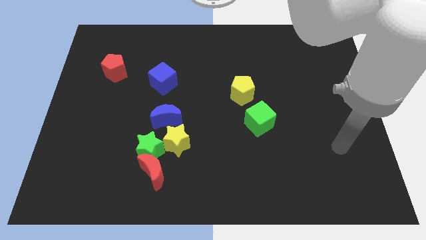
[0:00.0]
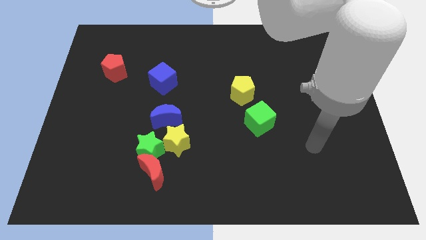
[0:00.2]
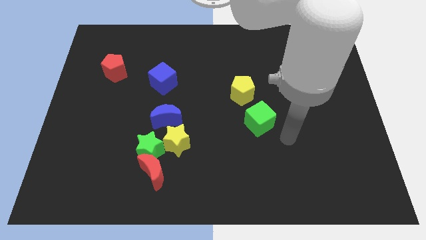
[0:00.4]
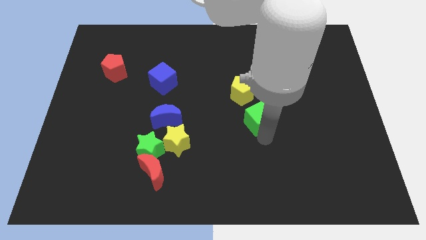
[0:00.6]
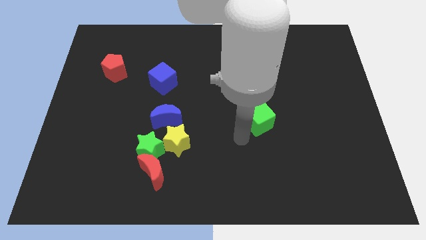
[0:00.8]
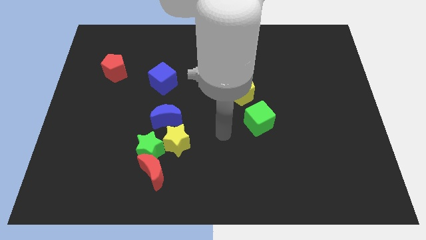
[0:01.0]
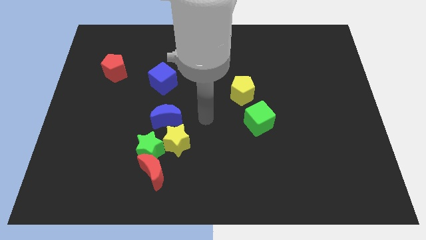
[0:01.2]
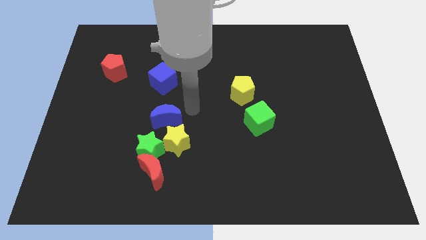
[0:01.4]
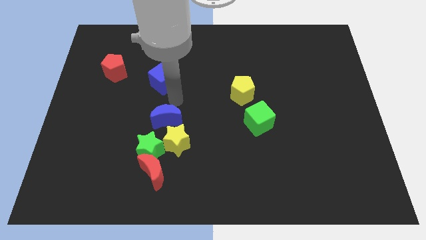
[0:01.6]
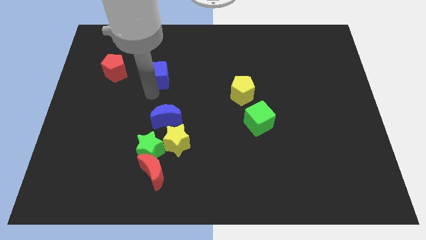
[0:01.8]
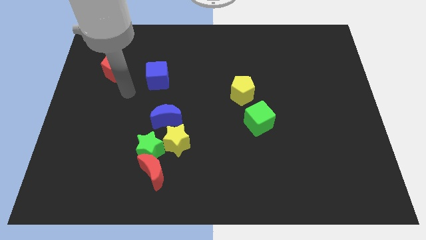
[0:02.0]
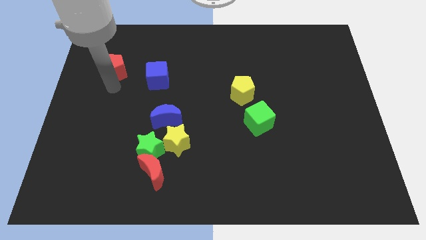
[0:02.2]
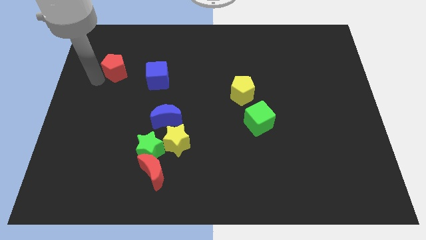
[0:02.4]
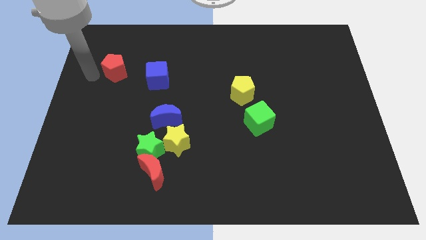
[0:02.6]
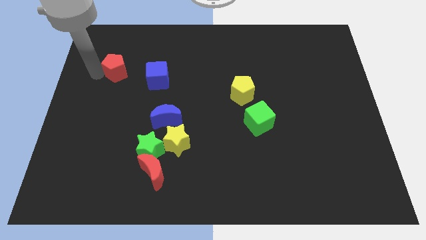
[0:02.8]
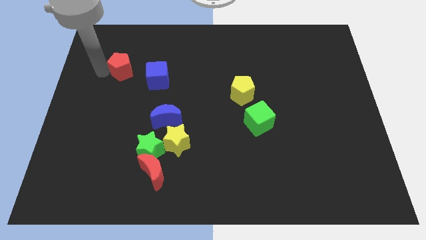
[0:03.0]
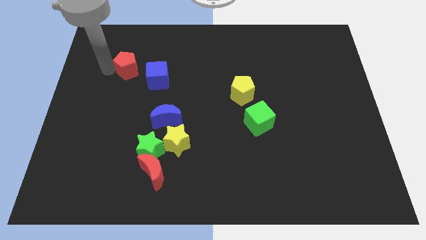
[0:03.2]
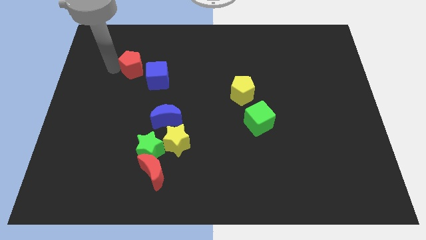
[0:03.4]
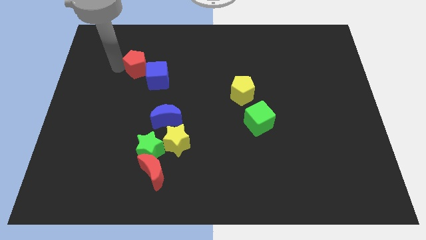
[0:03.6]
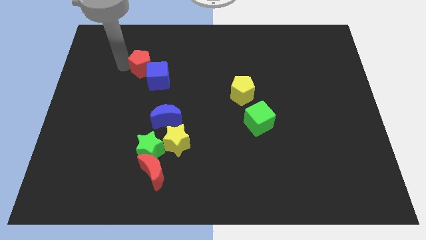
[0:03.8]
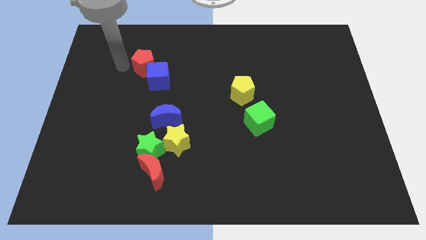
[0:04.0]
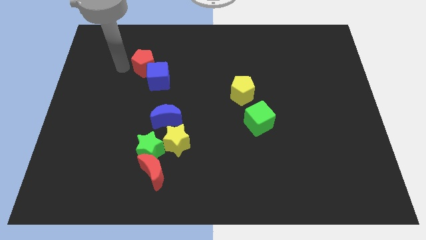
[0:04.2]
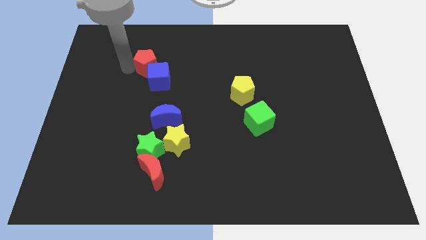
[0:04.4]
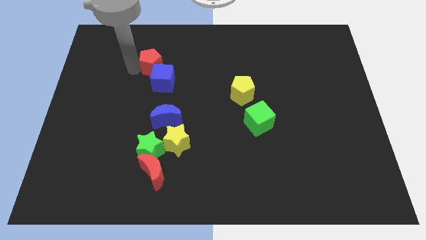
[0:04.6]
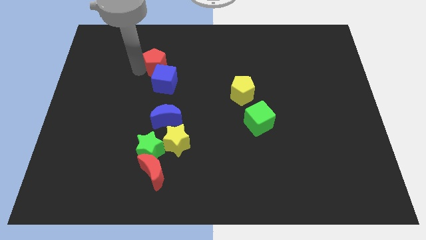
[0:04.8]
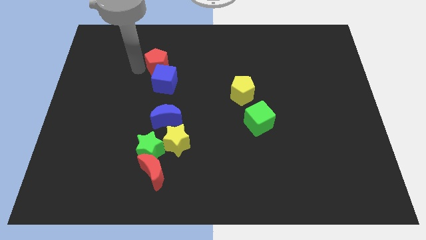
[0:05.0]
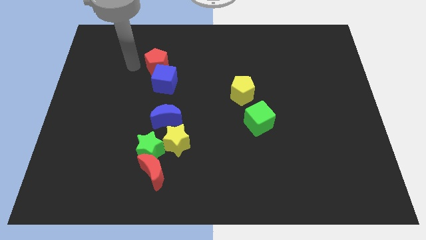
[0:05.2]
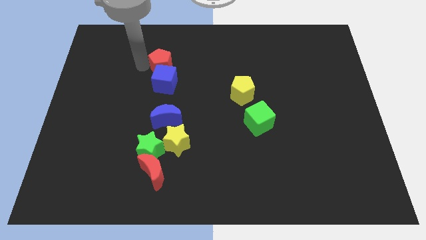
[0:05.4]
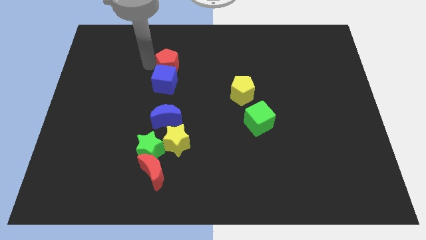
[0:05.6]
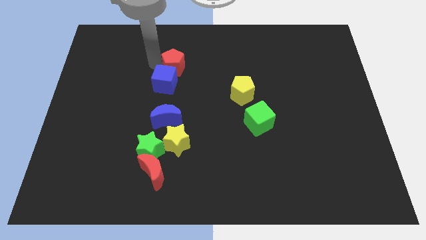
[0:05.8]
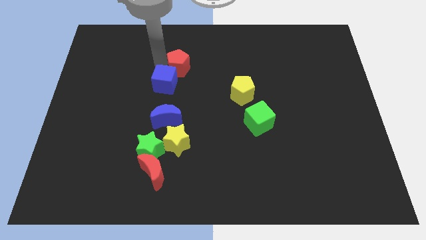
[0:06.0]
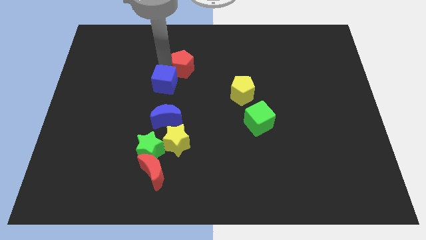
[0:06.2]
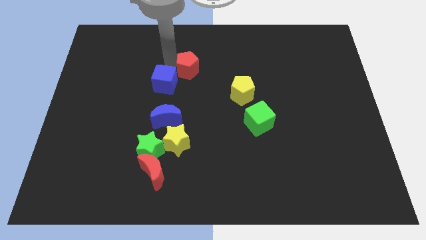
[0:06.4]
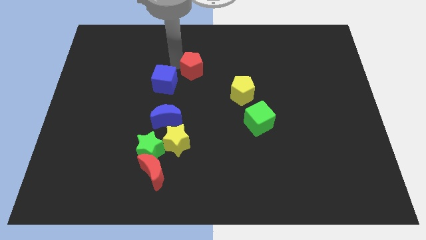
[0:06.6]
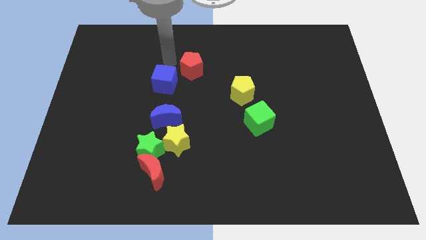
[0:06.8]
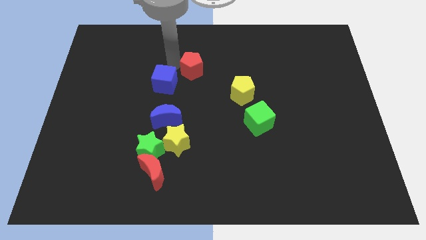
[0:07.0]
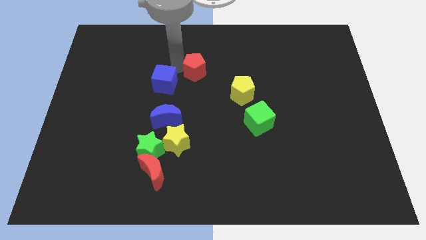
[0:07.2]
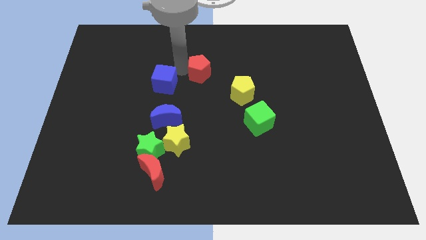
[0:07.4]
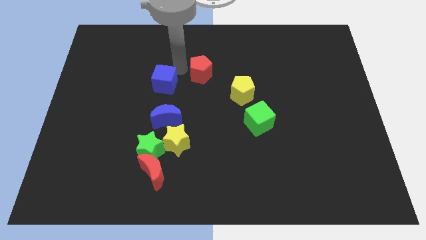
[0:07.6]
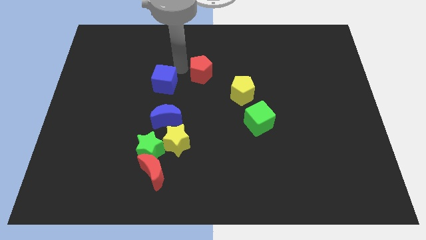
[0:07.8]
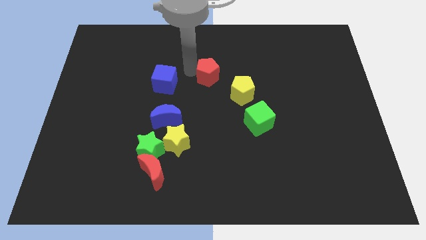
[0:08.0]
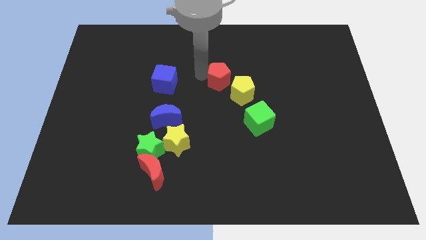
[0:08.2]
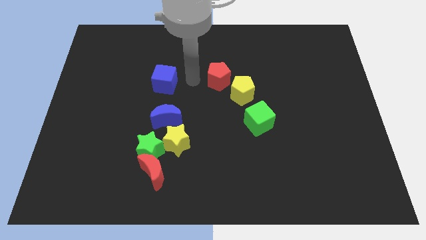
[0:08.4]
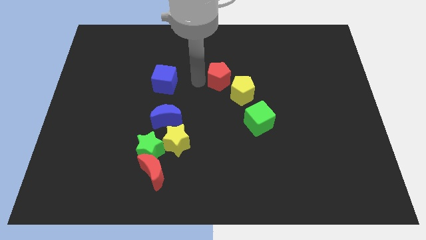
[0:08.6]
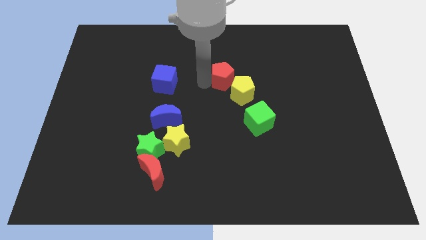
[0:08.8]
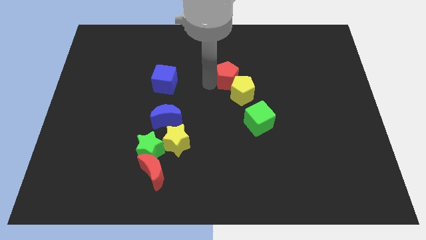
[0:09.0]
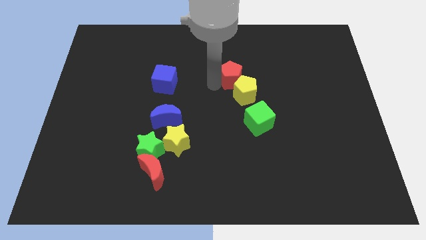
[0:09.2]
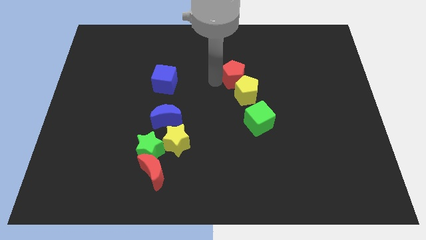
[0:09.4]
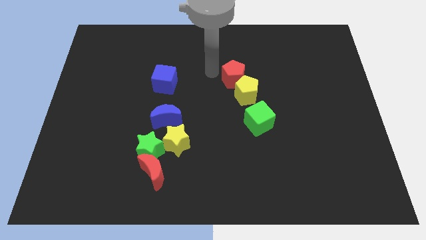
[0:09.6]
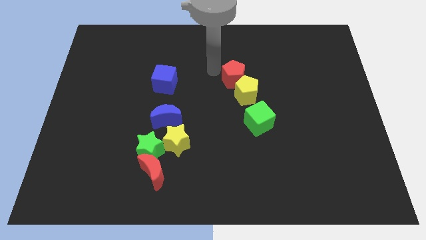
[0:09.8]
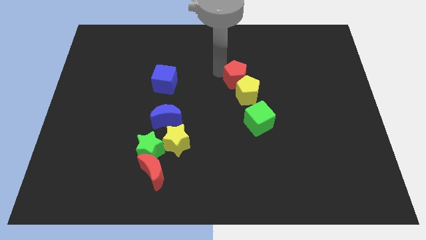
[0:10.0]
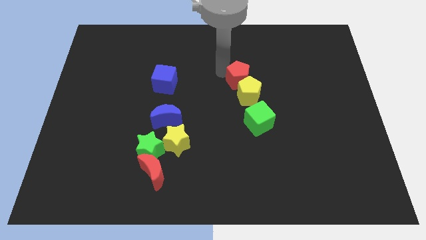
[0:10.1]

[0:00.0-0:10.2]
put the red pentagon above the green cube

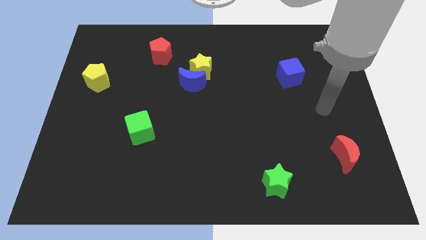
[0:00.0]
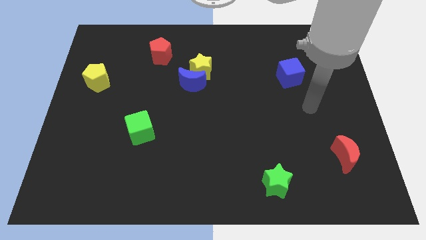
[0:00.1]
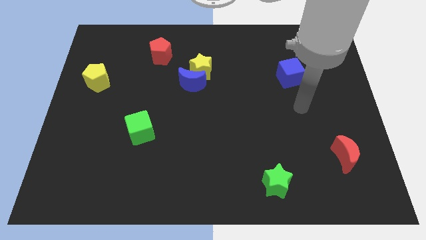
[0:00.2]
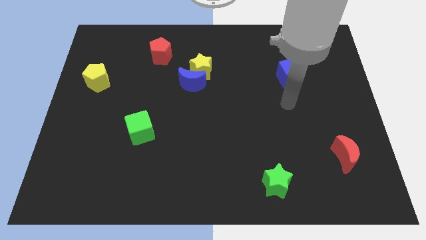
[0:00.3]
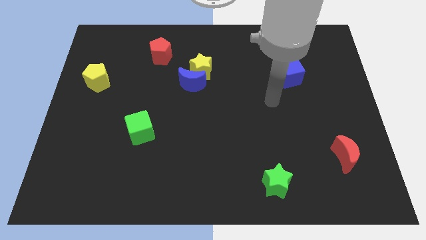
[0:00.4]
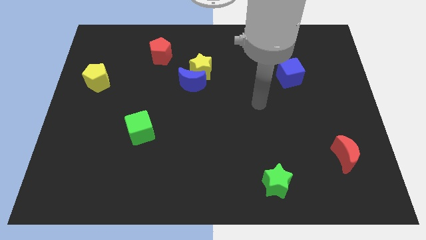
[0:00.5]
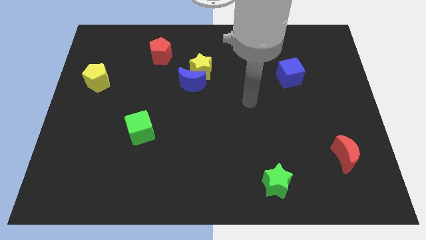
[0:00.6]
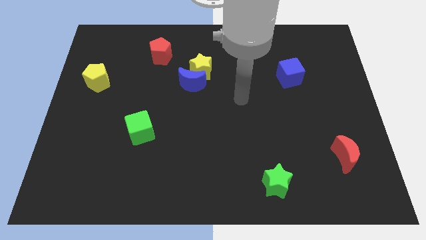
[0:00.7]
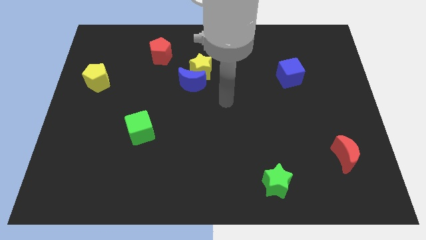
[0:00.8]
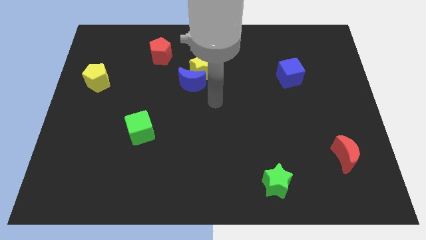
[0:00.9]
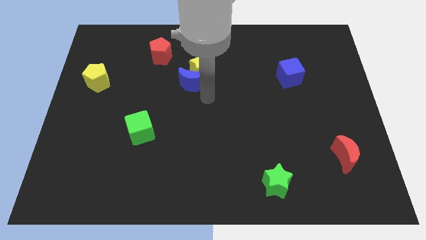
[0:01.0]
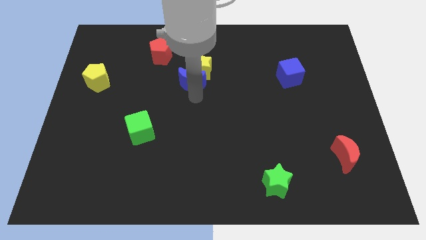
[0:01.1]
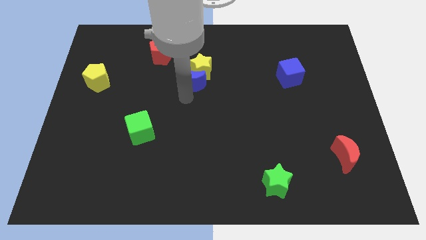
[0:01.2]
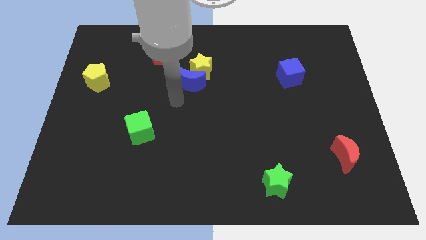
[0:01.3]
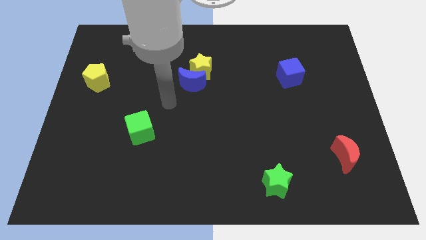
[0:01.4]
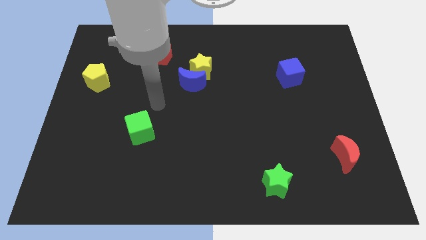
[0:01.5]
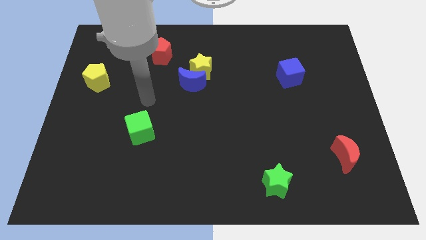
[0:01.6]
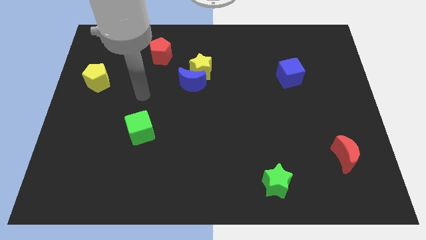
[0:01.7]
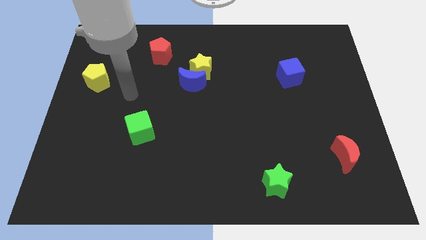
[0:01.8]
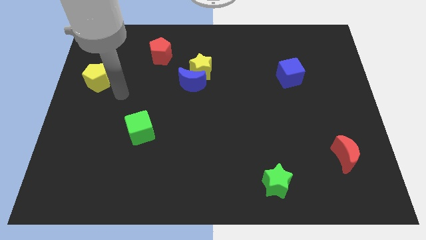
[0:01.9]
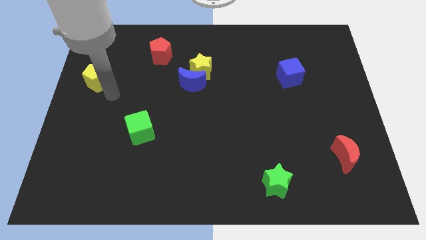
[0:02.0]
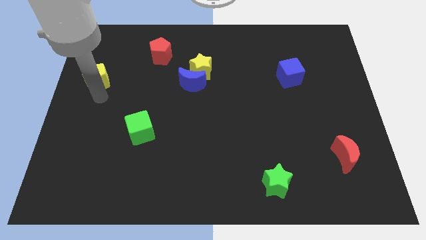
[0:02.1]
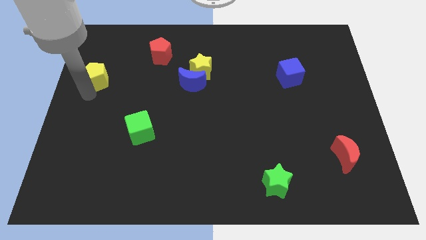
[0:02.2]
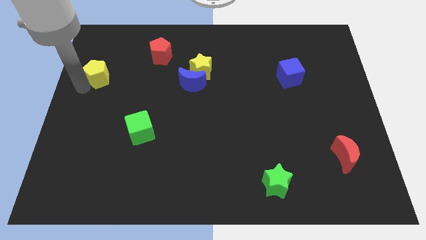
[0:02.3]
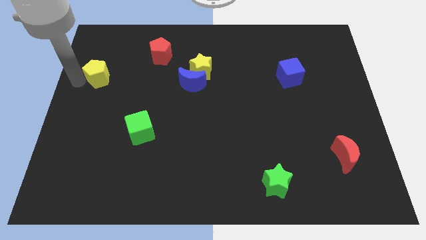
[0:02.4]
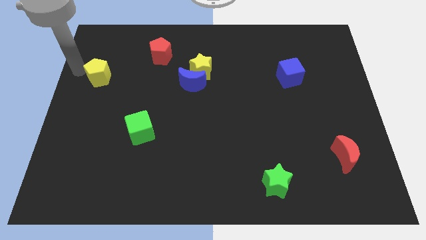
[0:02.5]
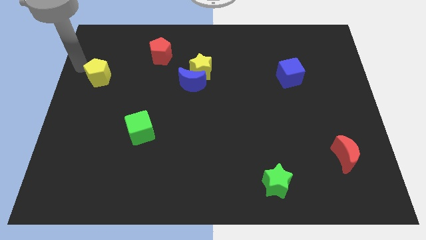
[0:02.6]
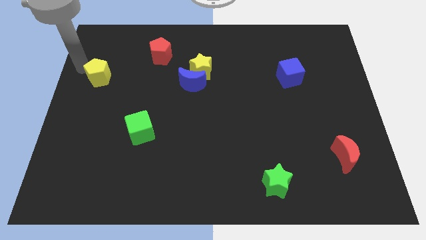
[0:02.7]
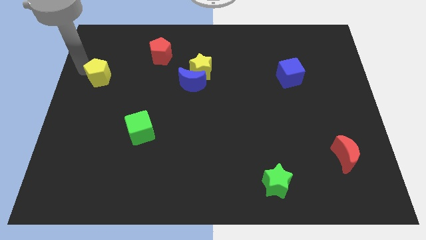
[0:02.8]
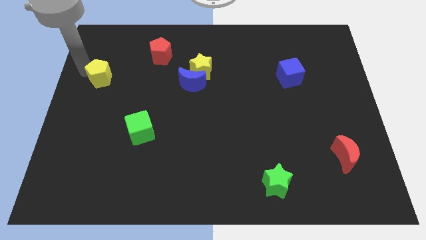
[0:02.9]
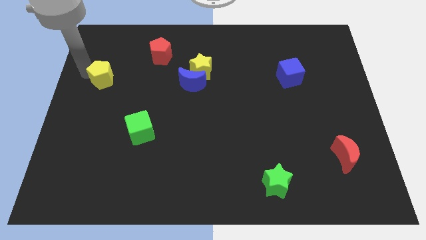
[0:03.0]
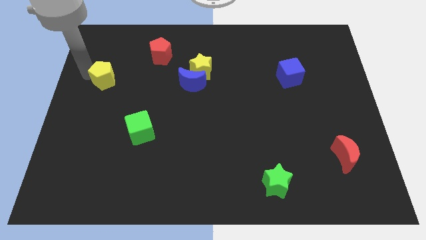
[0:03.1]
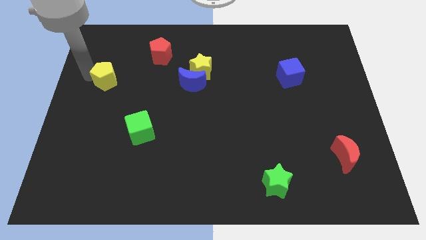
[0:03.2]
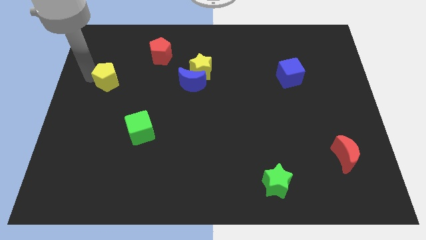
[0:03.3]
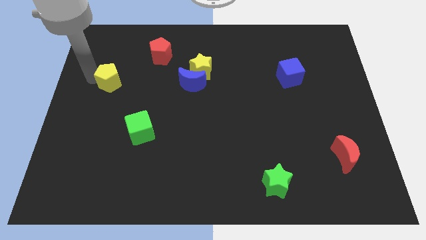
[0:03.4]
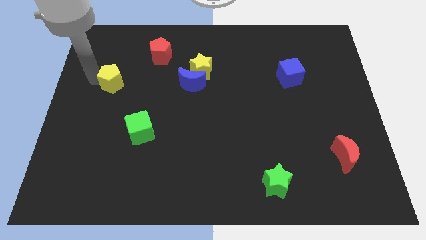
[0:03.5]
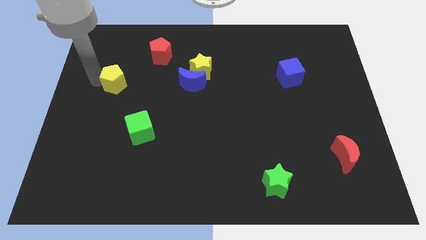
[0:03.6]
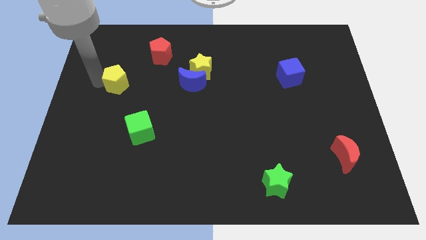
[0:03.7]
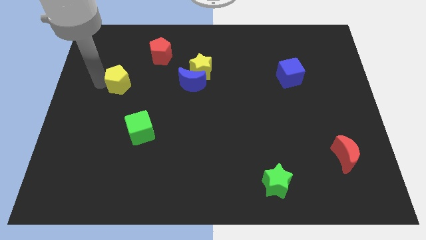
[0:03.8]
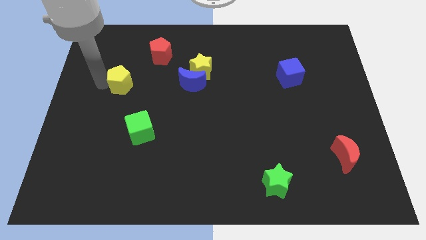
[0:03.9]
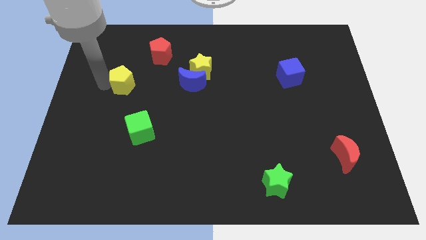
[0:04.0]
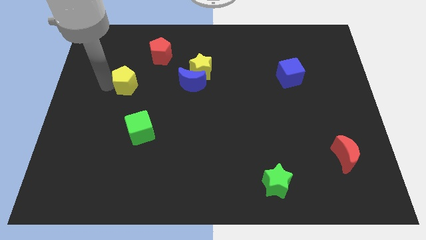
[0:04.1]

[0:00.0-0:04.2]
move the yellow pentagon just left of the blue moon
